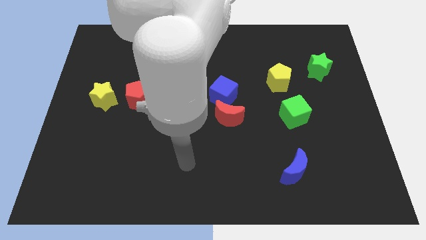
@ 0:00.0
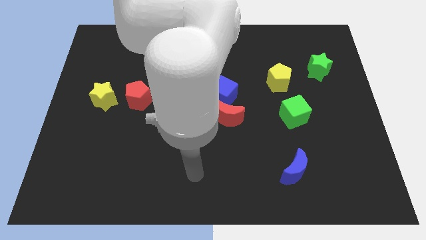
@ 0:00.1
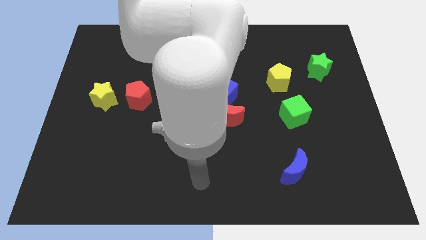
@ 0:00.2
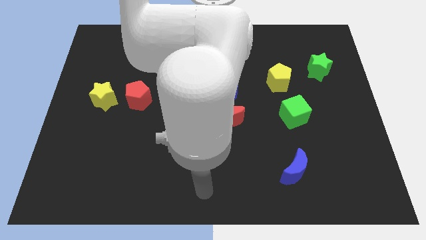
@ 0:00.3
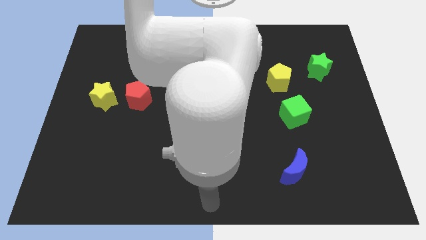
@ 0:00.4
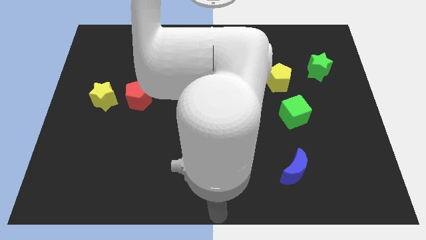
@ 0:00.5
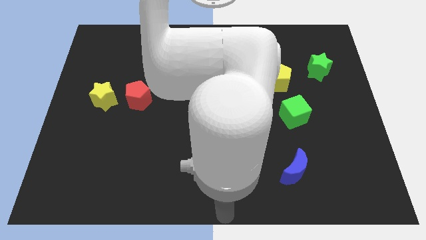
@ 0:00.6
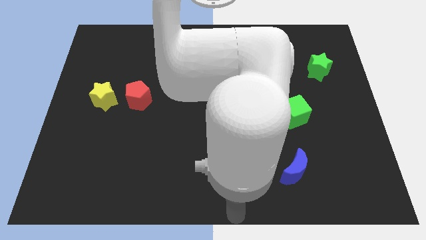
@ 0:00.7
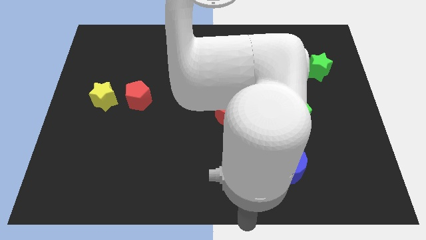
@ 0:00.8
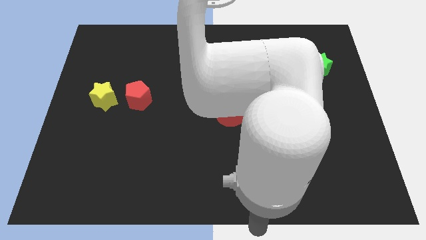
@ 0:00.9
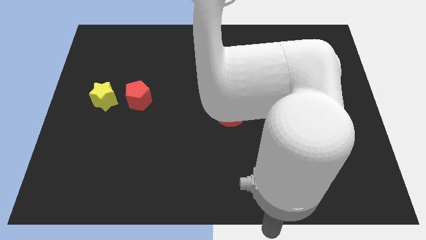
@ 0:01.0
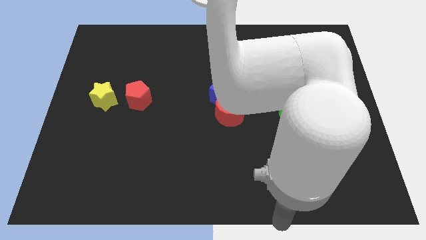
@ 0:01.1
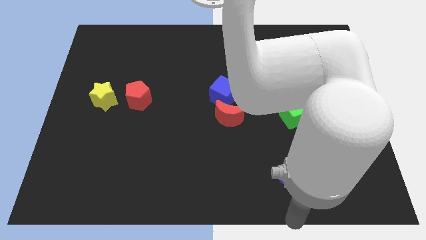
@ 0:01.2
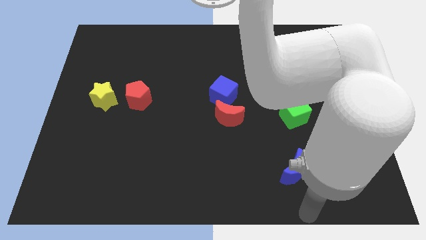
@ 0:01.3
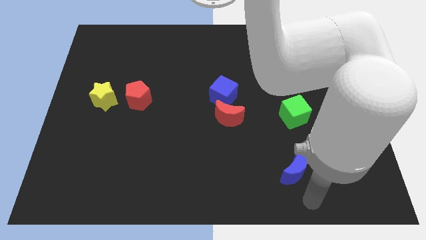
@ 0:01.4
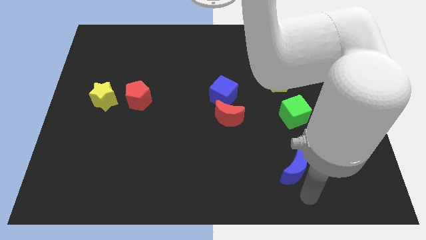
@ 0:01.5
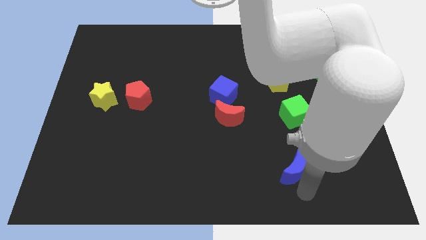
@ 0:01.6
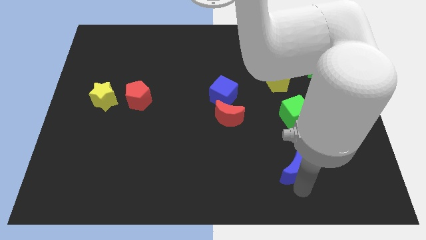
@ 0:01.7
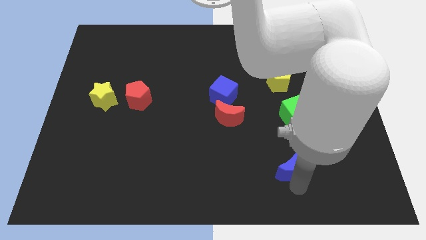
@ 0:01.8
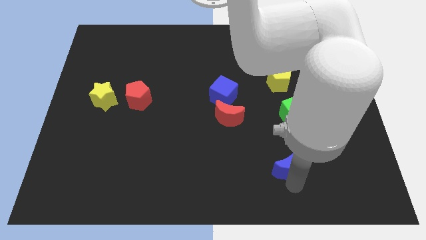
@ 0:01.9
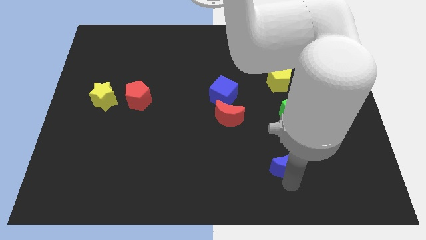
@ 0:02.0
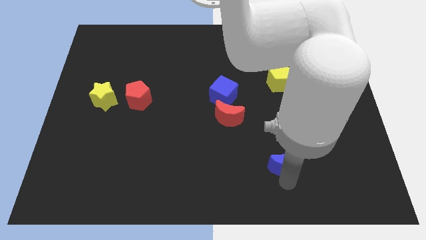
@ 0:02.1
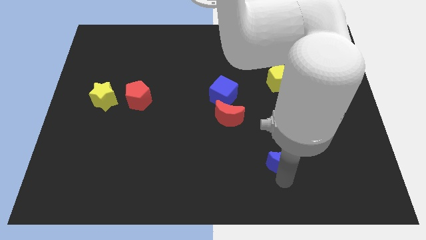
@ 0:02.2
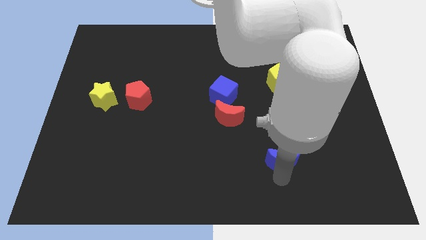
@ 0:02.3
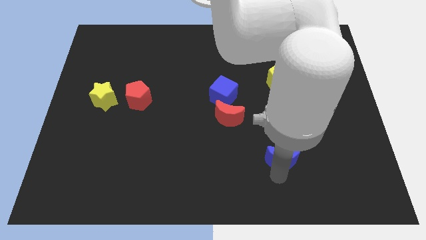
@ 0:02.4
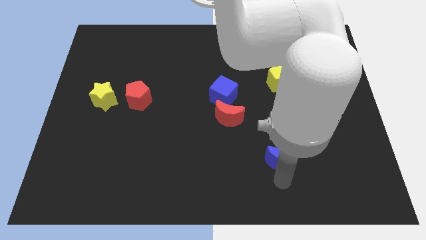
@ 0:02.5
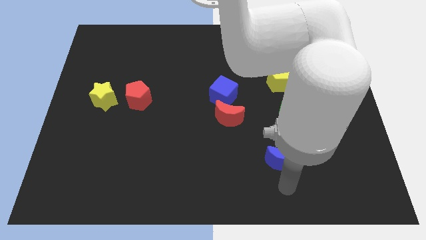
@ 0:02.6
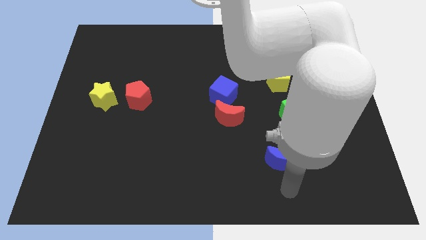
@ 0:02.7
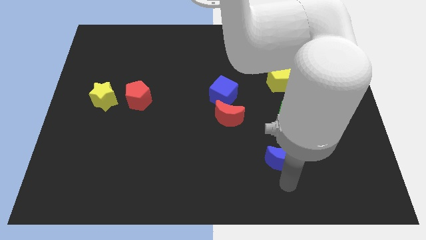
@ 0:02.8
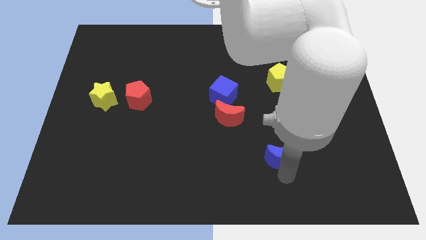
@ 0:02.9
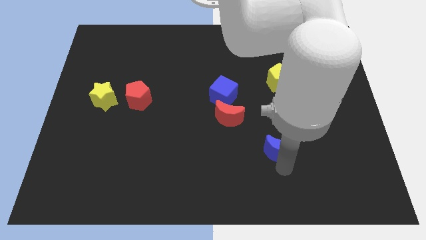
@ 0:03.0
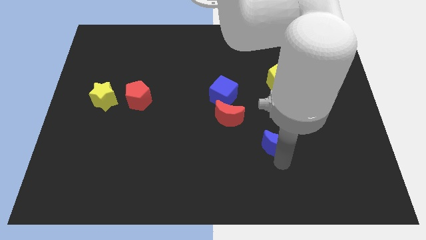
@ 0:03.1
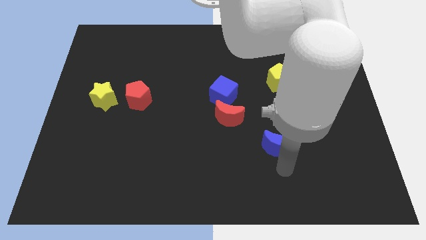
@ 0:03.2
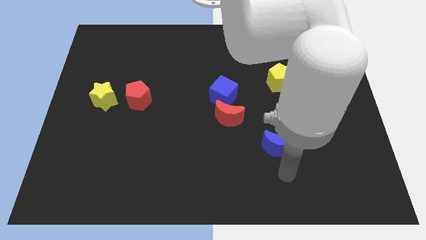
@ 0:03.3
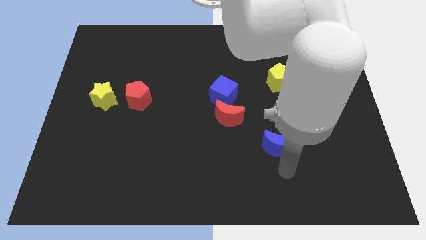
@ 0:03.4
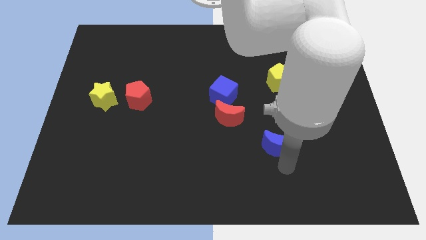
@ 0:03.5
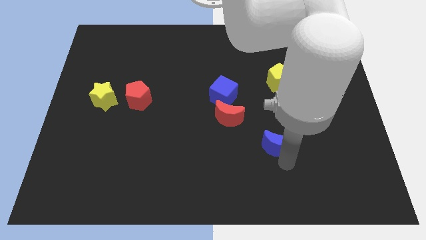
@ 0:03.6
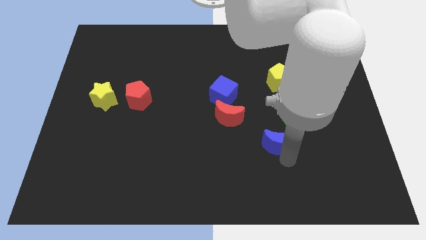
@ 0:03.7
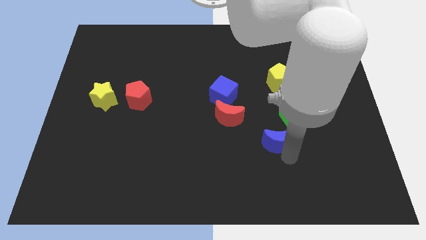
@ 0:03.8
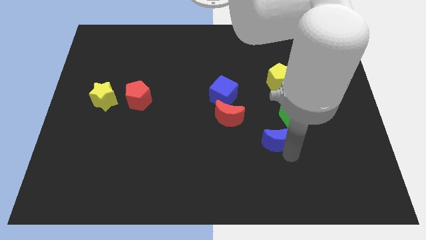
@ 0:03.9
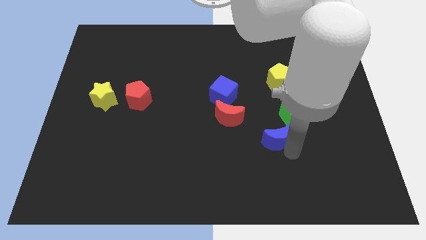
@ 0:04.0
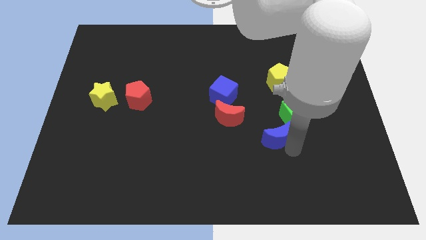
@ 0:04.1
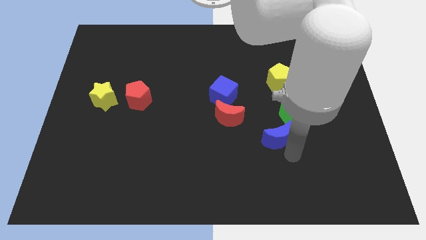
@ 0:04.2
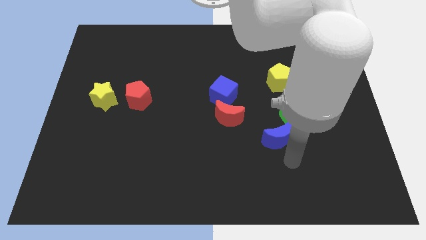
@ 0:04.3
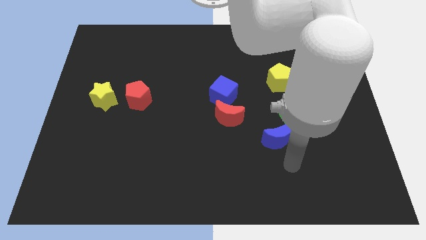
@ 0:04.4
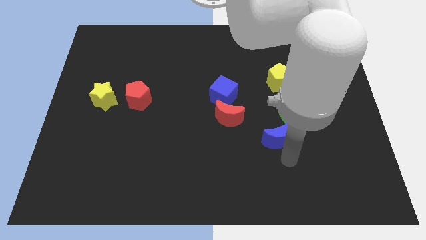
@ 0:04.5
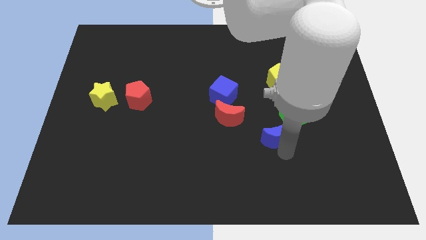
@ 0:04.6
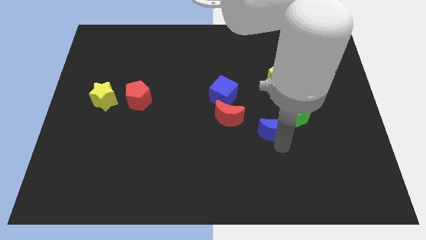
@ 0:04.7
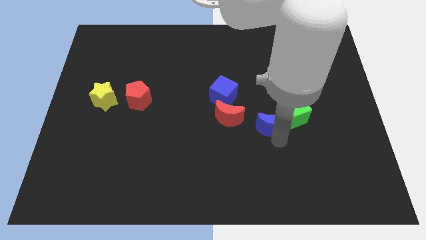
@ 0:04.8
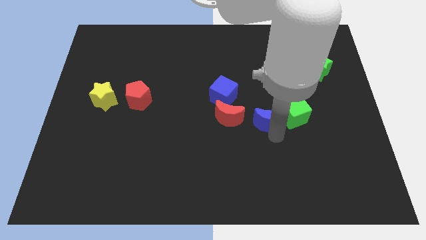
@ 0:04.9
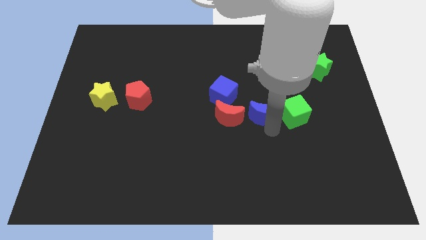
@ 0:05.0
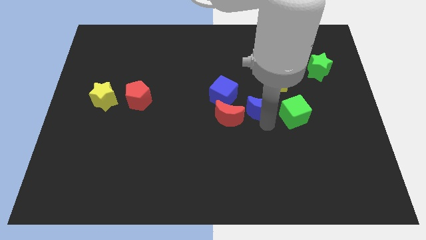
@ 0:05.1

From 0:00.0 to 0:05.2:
slide the blue moon diagonally down and to the left of the yellow pentagon

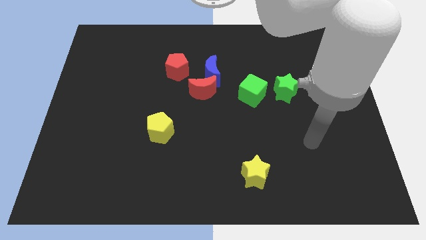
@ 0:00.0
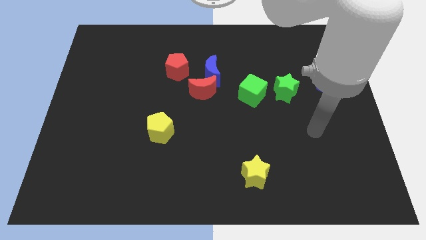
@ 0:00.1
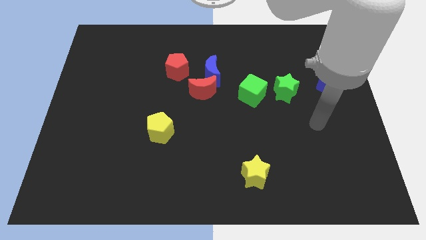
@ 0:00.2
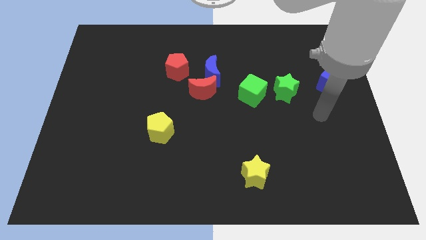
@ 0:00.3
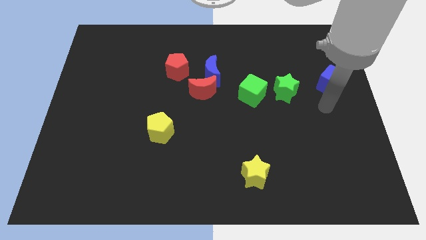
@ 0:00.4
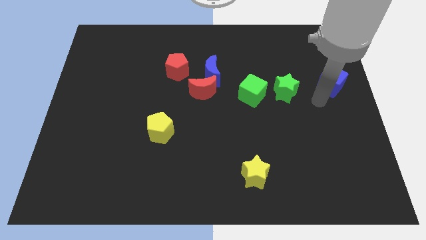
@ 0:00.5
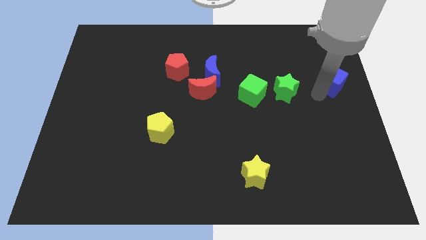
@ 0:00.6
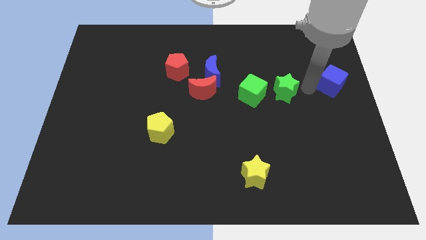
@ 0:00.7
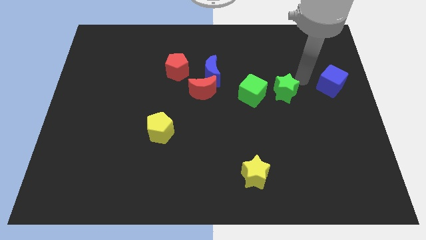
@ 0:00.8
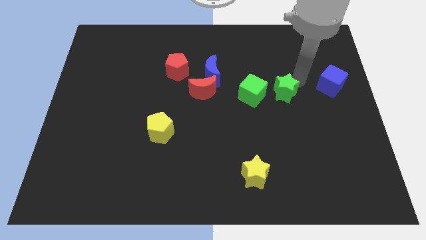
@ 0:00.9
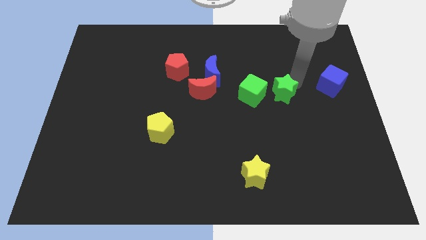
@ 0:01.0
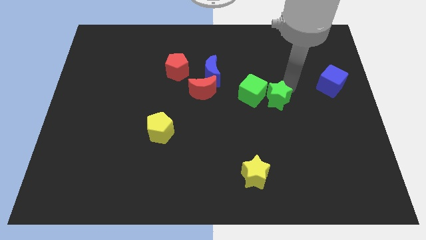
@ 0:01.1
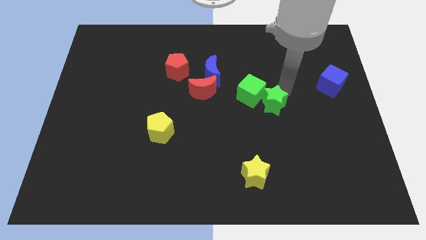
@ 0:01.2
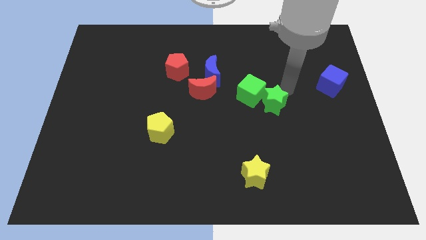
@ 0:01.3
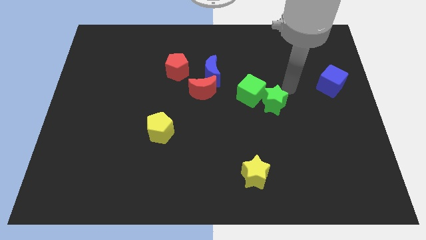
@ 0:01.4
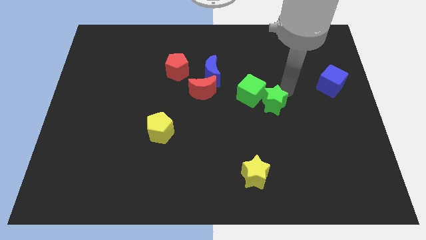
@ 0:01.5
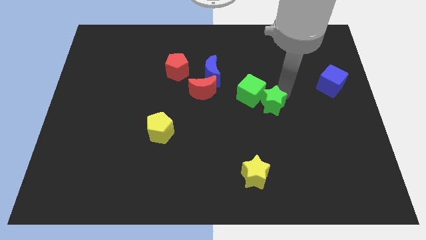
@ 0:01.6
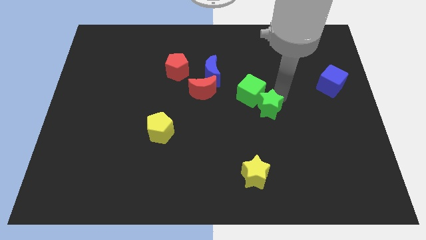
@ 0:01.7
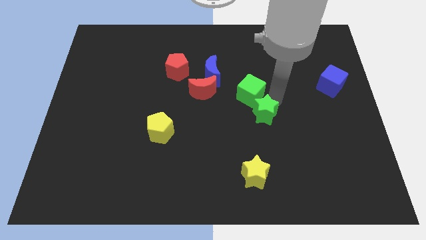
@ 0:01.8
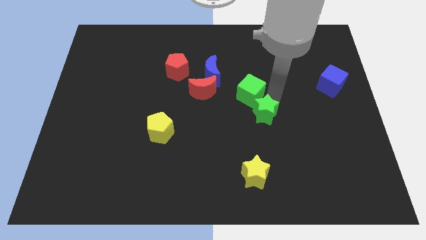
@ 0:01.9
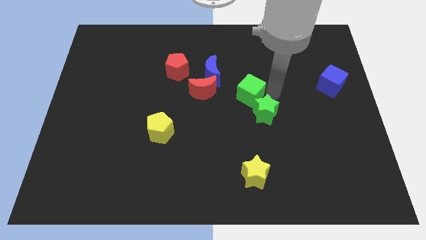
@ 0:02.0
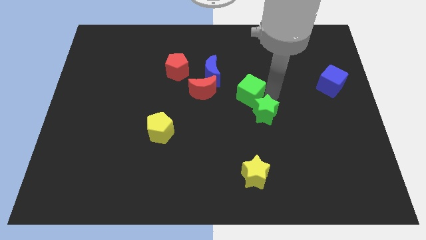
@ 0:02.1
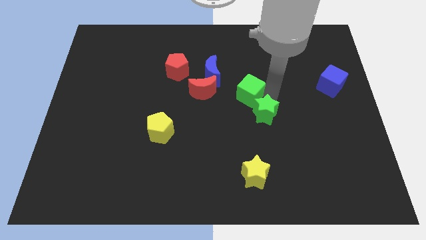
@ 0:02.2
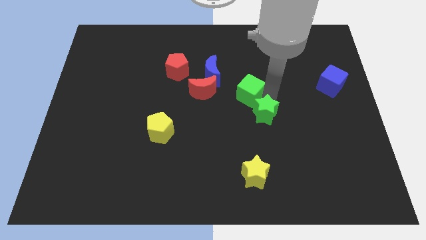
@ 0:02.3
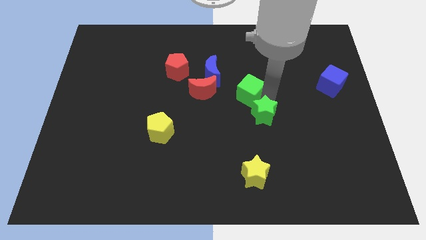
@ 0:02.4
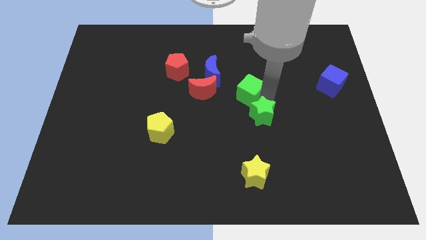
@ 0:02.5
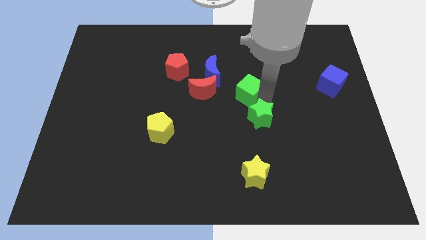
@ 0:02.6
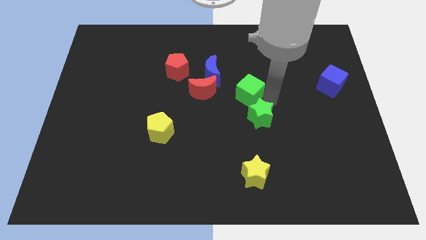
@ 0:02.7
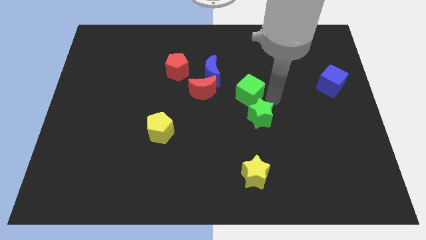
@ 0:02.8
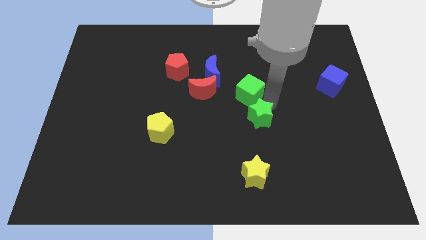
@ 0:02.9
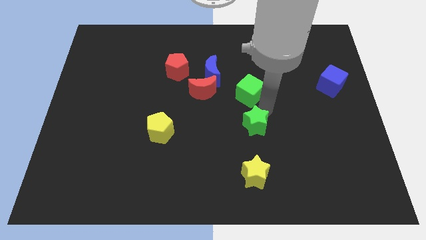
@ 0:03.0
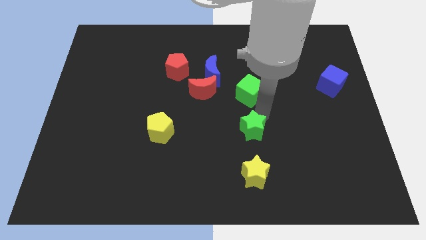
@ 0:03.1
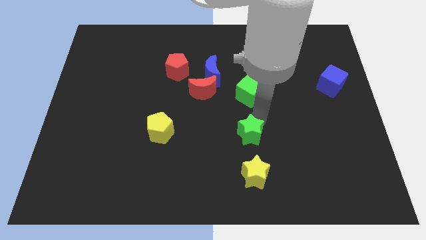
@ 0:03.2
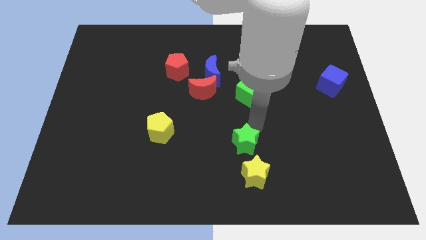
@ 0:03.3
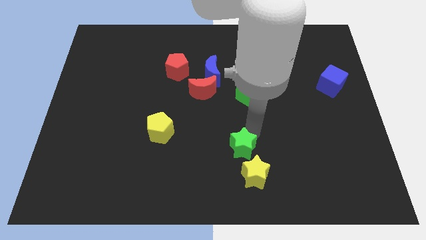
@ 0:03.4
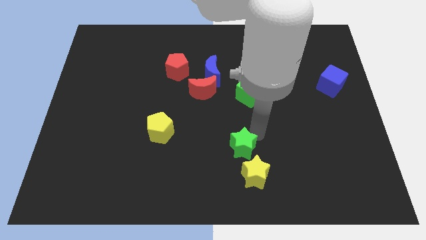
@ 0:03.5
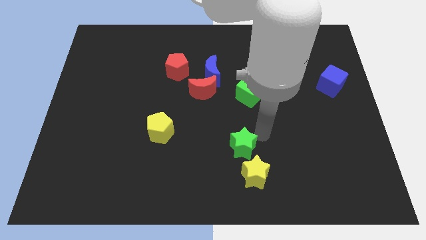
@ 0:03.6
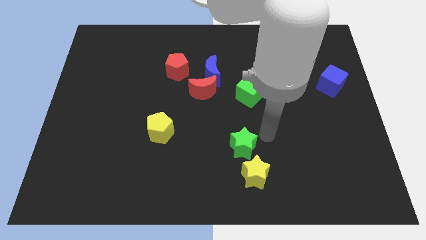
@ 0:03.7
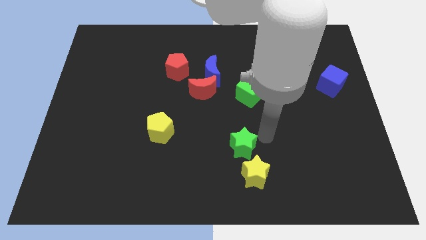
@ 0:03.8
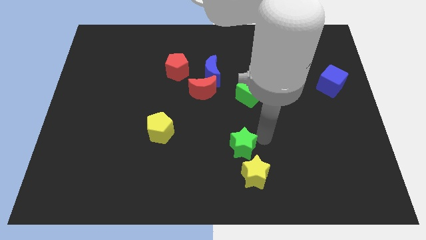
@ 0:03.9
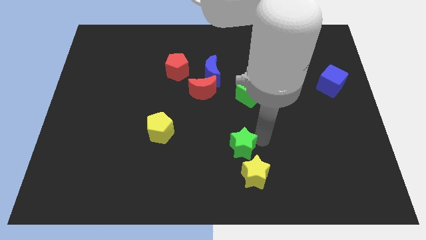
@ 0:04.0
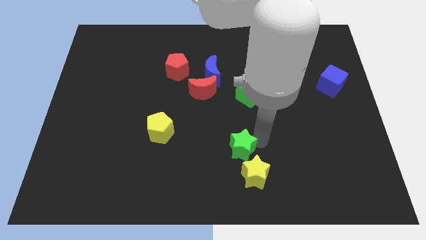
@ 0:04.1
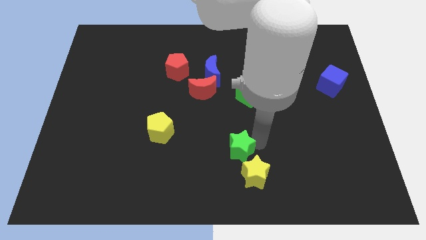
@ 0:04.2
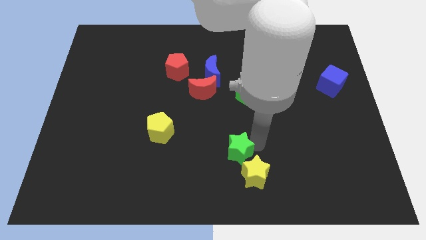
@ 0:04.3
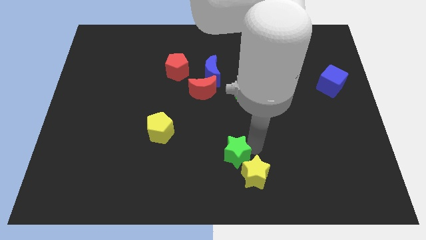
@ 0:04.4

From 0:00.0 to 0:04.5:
put the green star to the left side of the yellow star
